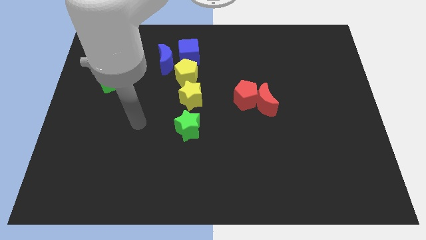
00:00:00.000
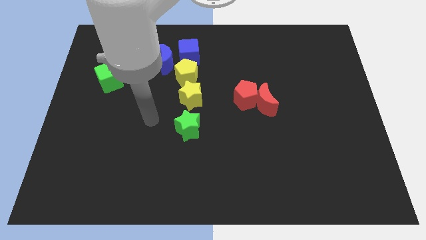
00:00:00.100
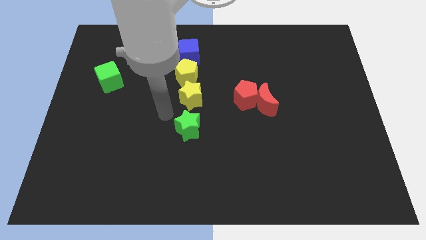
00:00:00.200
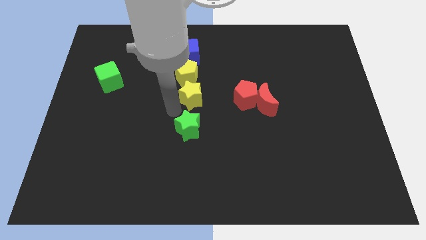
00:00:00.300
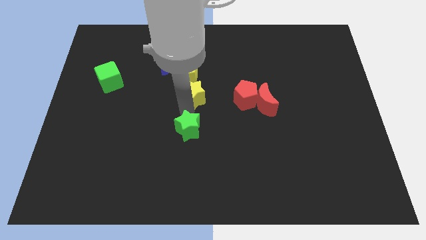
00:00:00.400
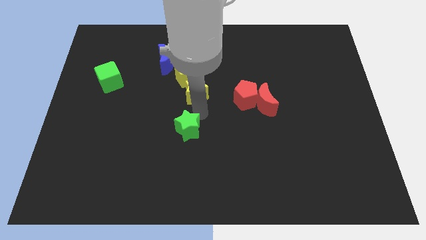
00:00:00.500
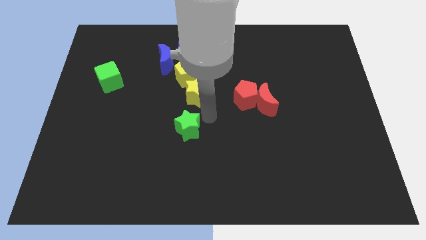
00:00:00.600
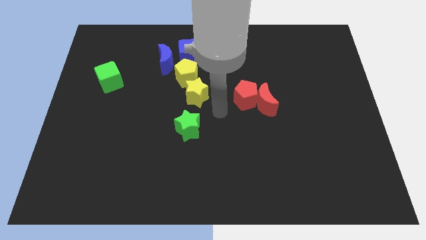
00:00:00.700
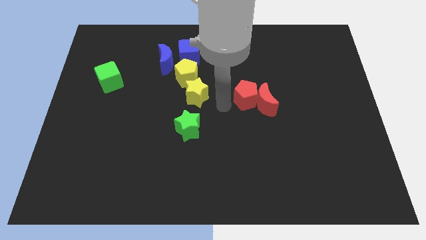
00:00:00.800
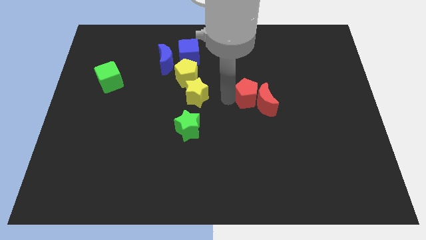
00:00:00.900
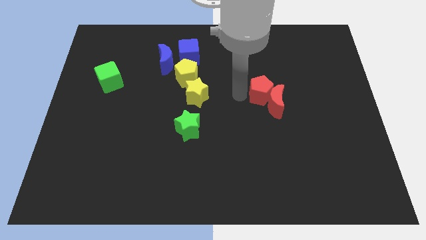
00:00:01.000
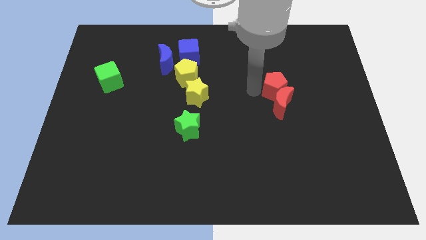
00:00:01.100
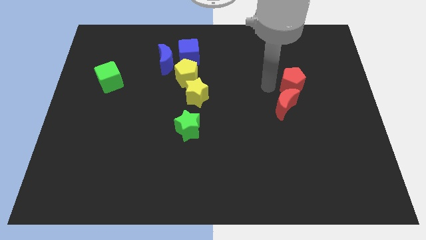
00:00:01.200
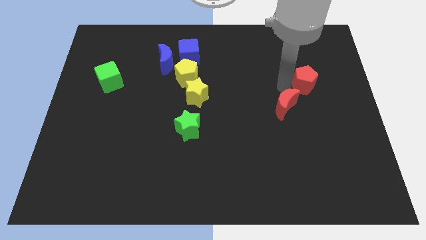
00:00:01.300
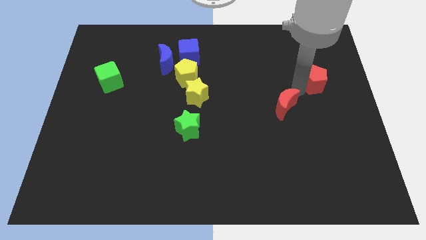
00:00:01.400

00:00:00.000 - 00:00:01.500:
separate the red moon from the red pentagon

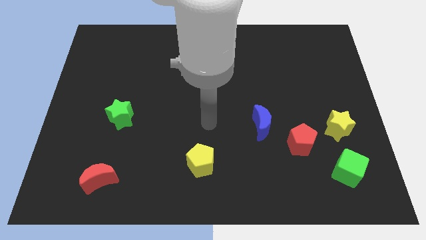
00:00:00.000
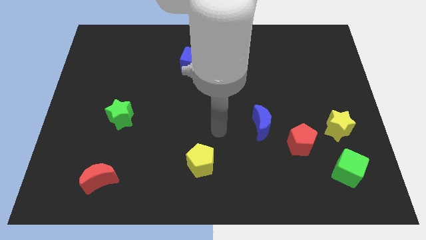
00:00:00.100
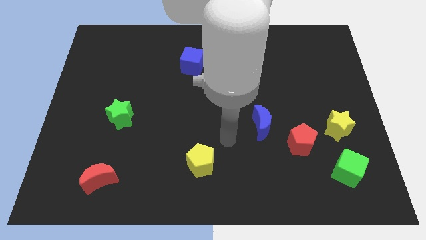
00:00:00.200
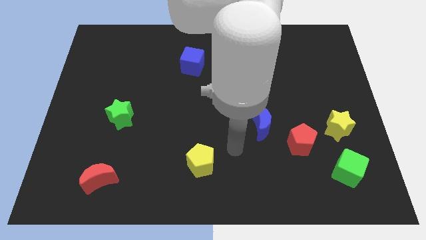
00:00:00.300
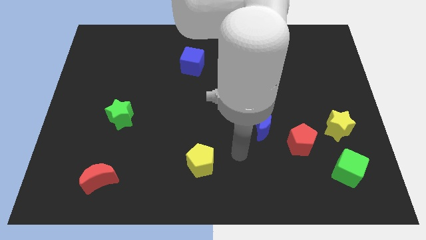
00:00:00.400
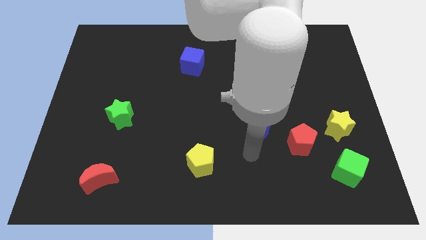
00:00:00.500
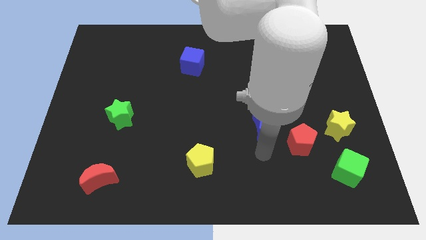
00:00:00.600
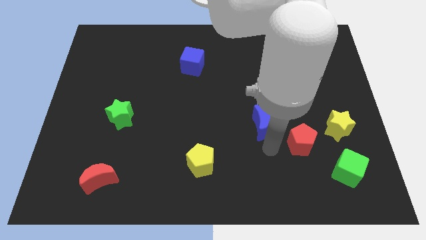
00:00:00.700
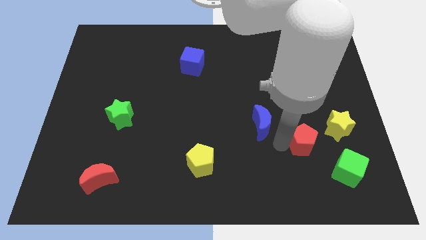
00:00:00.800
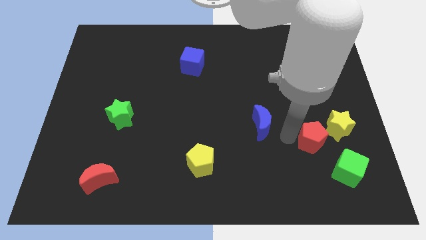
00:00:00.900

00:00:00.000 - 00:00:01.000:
separate the blue moon from the red pentagon

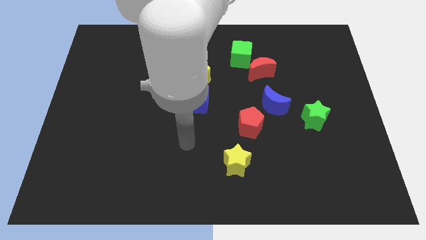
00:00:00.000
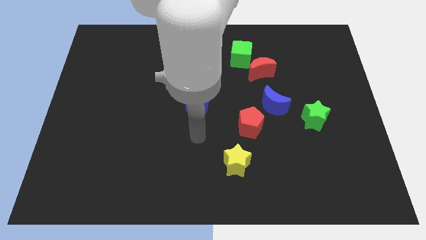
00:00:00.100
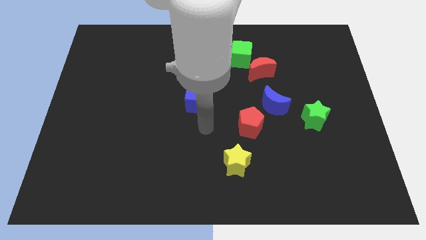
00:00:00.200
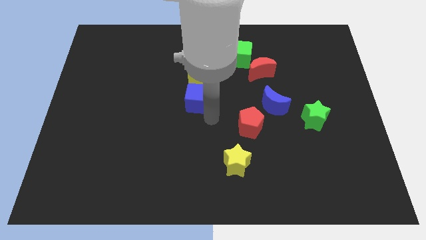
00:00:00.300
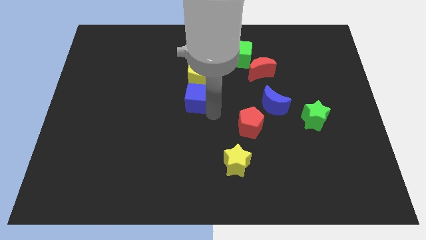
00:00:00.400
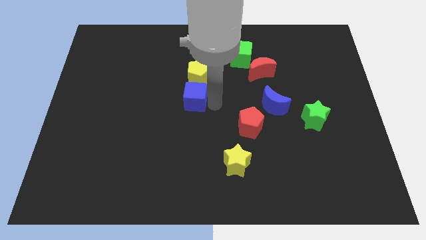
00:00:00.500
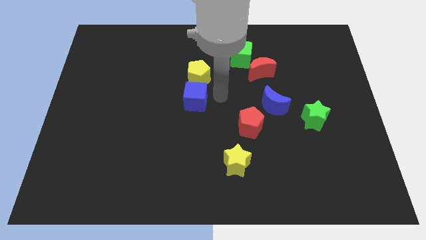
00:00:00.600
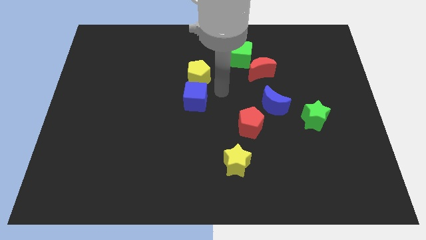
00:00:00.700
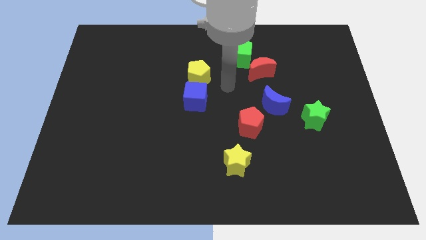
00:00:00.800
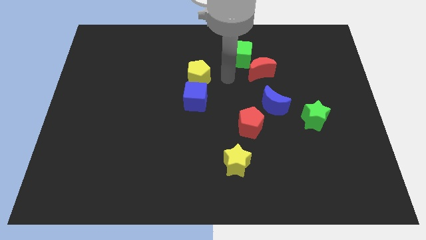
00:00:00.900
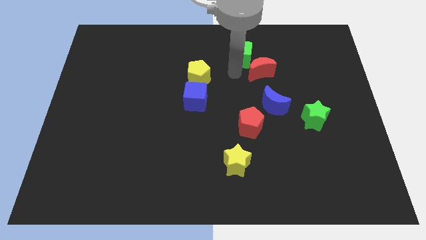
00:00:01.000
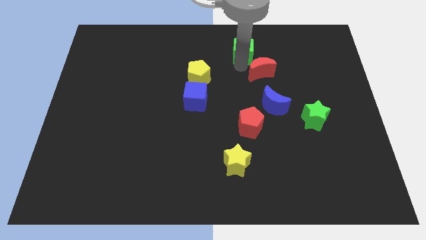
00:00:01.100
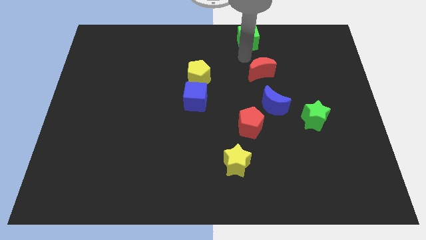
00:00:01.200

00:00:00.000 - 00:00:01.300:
pull the red moon apart from the green cube

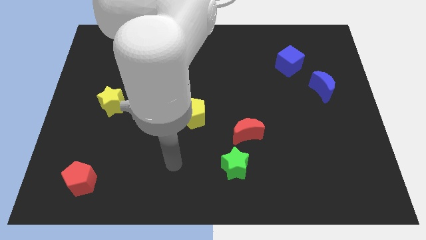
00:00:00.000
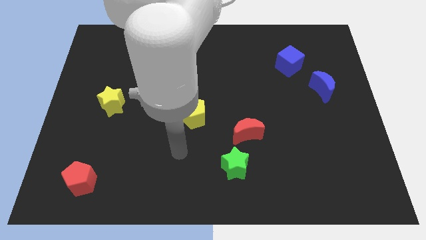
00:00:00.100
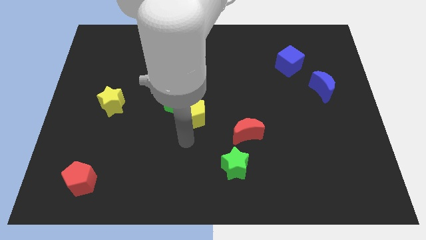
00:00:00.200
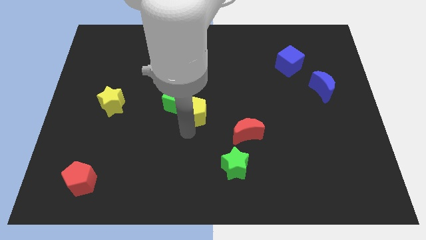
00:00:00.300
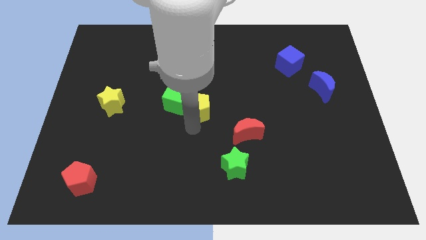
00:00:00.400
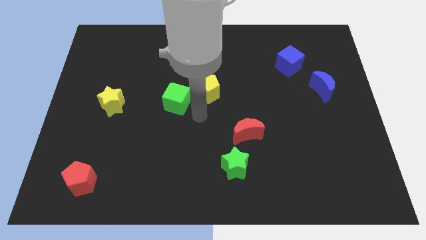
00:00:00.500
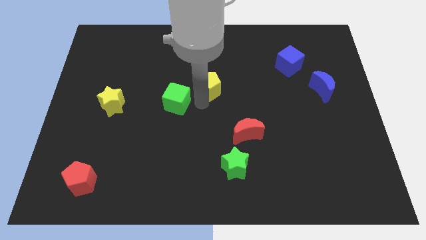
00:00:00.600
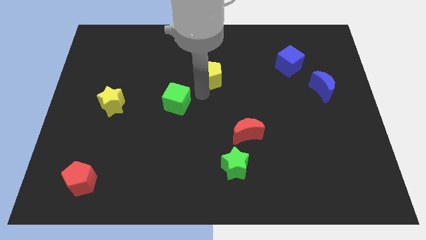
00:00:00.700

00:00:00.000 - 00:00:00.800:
pull the green cube apart from the yellow pentagon

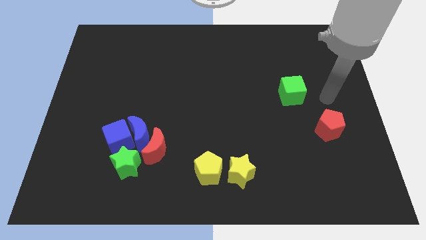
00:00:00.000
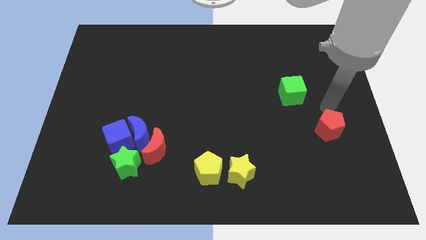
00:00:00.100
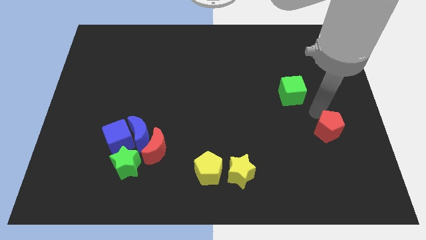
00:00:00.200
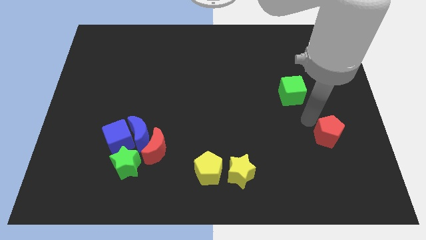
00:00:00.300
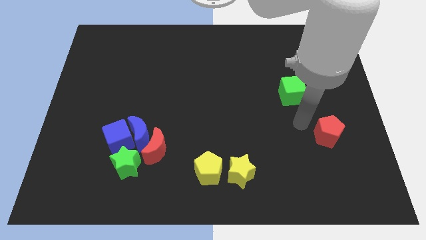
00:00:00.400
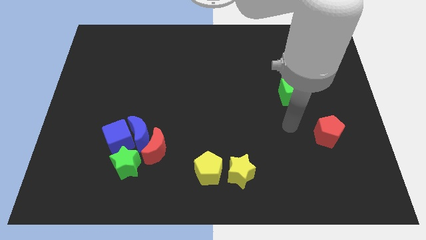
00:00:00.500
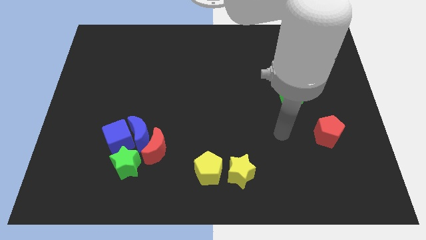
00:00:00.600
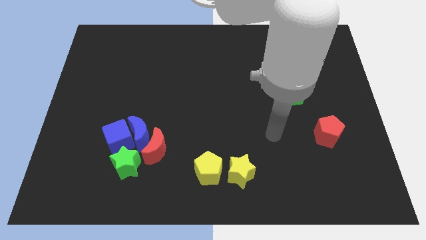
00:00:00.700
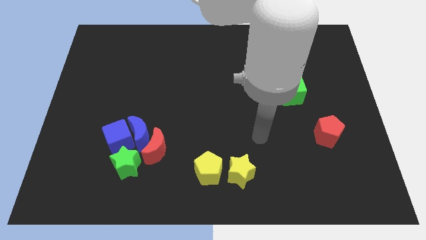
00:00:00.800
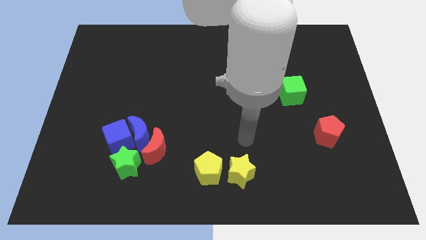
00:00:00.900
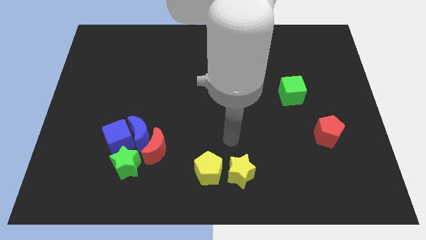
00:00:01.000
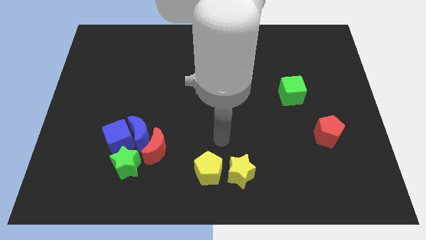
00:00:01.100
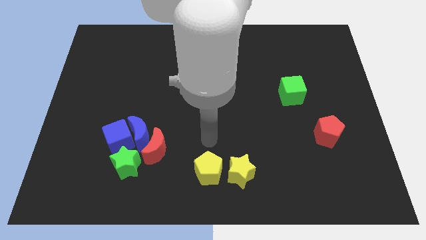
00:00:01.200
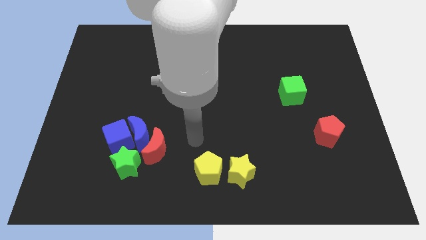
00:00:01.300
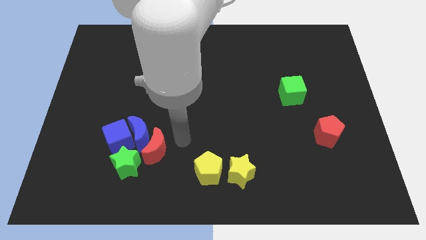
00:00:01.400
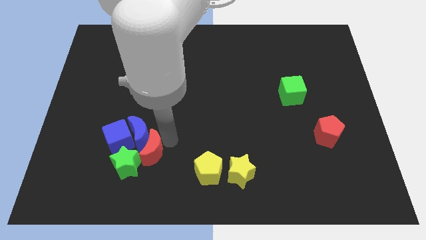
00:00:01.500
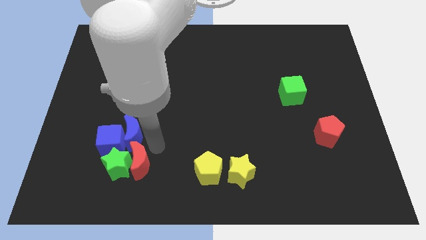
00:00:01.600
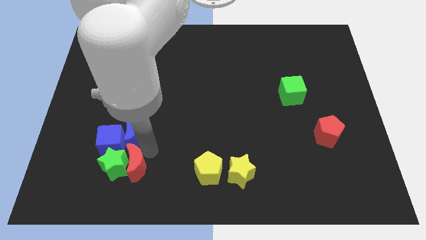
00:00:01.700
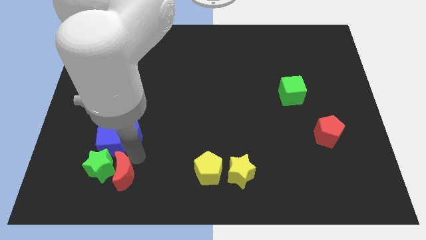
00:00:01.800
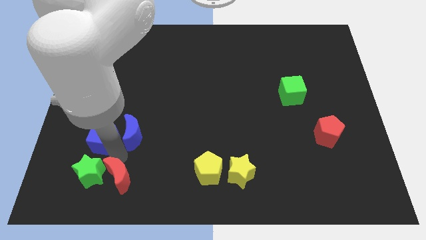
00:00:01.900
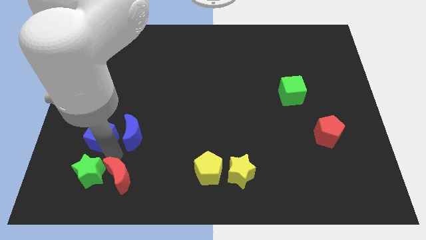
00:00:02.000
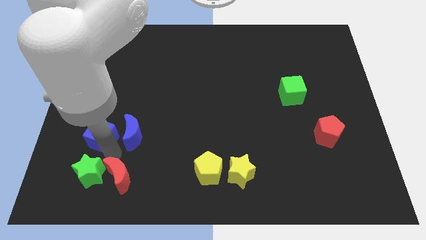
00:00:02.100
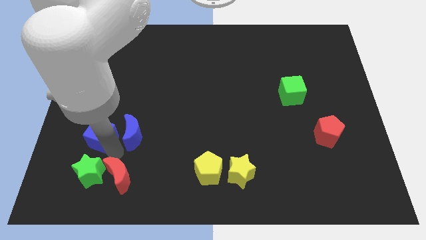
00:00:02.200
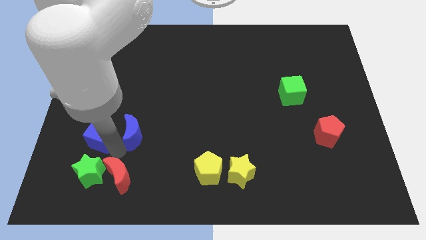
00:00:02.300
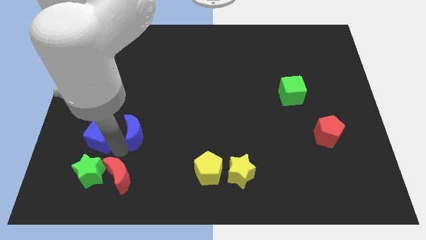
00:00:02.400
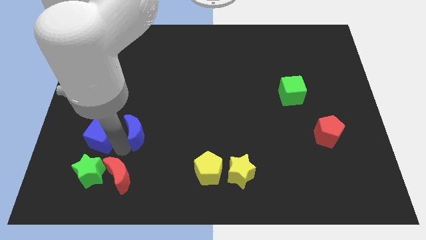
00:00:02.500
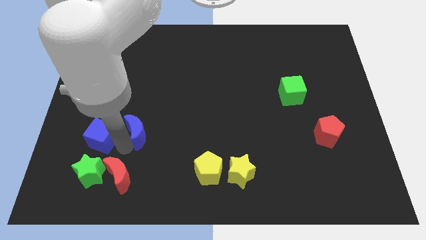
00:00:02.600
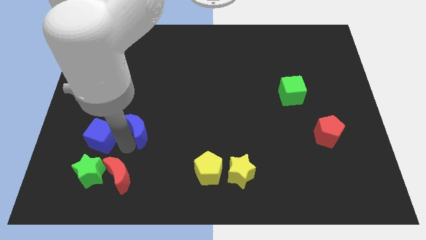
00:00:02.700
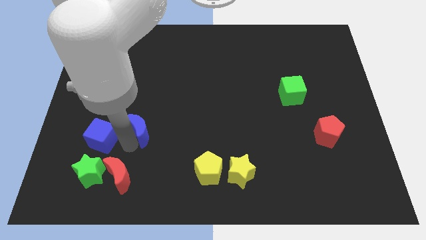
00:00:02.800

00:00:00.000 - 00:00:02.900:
move the blue moon away from the group

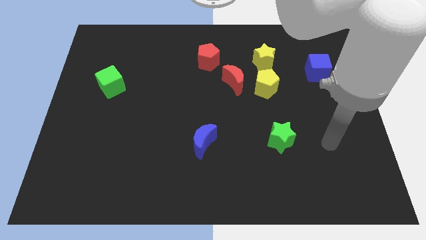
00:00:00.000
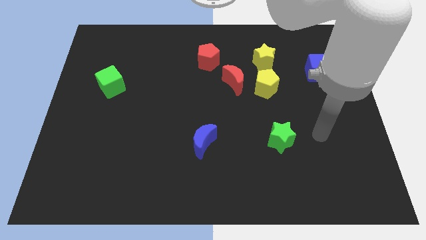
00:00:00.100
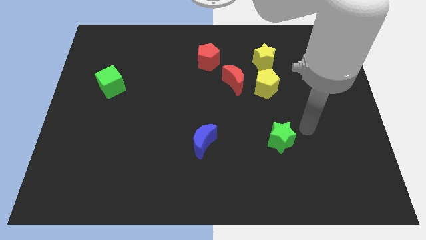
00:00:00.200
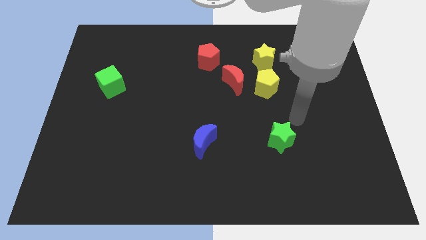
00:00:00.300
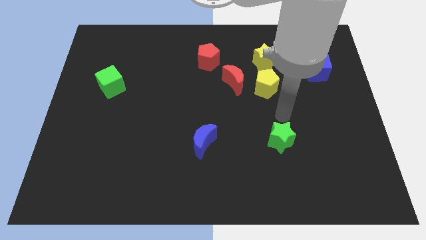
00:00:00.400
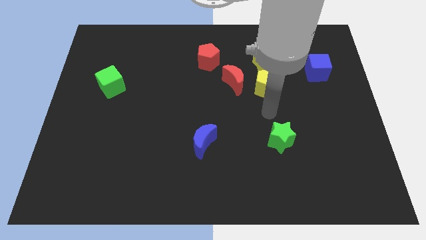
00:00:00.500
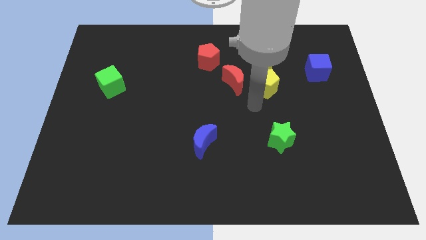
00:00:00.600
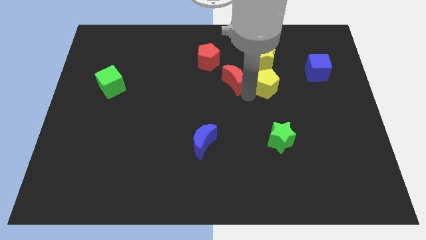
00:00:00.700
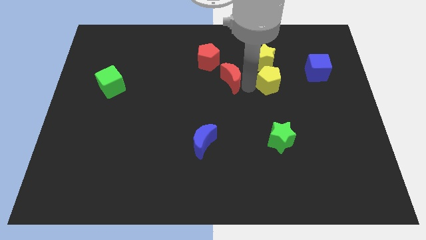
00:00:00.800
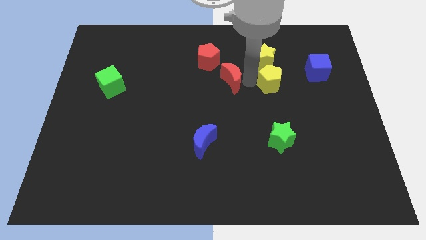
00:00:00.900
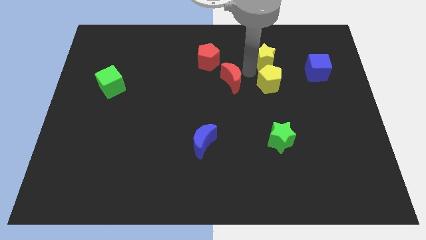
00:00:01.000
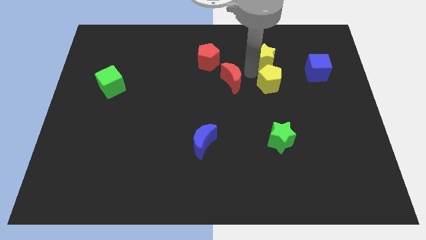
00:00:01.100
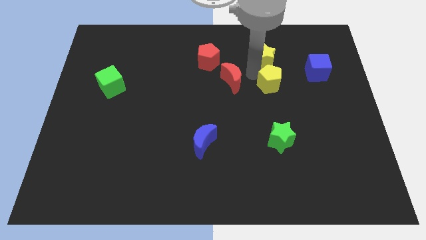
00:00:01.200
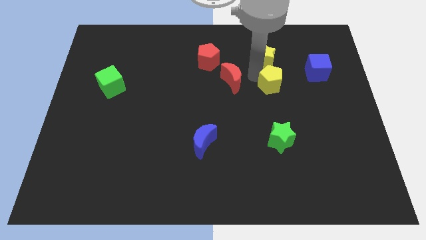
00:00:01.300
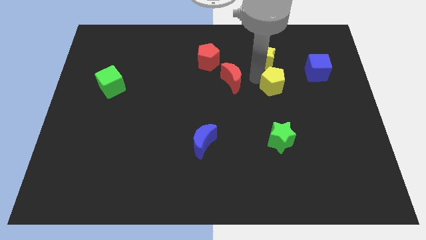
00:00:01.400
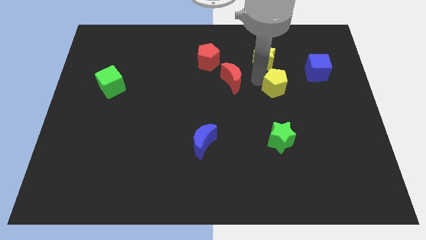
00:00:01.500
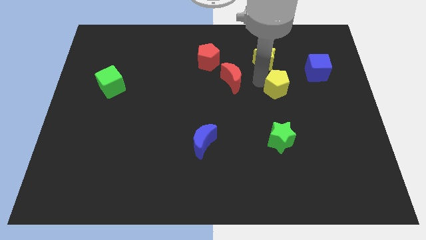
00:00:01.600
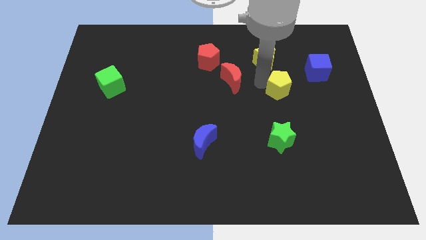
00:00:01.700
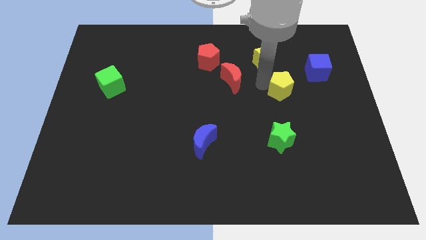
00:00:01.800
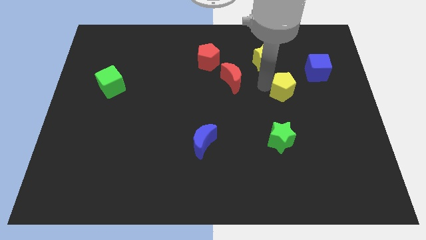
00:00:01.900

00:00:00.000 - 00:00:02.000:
pull the yellow pentagon apart from the red moon and yellow star
